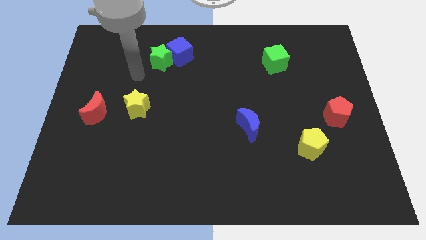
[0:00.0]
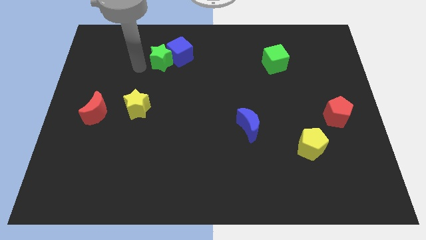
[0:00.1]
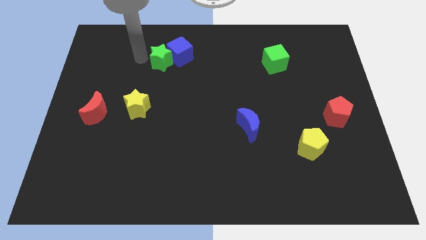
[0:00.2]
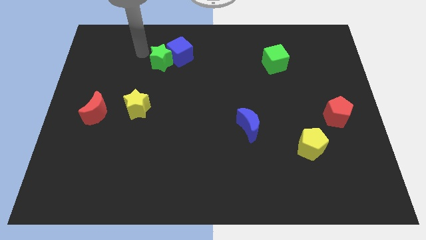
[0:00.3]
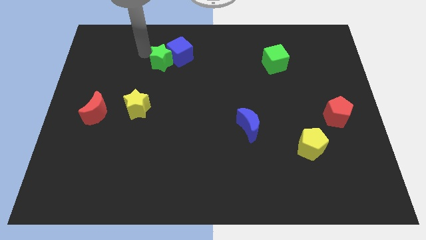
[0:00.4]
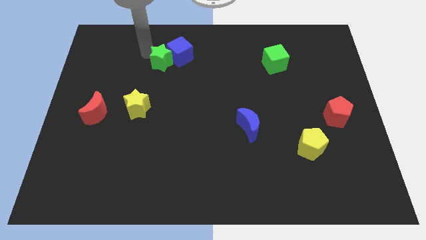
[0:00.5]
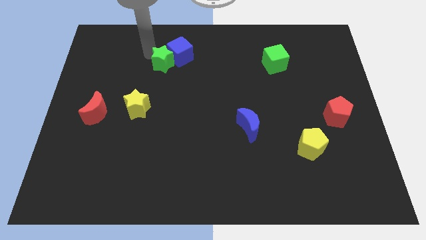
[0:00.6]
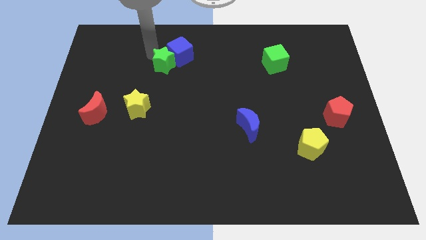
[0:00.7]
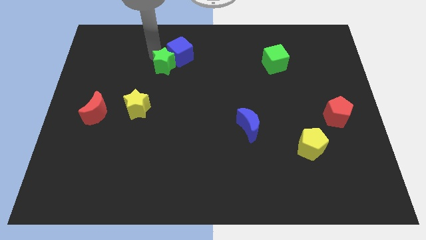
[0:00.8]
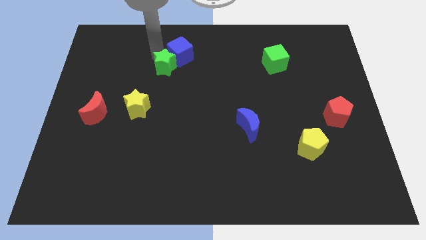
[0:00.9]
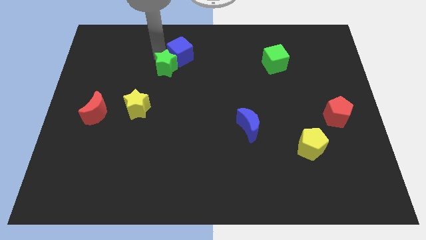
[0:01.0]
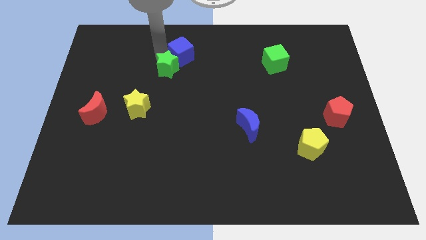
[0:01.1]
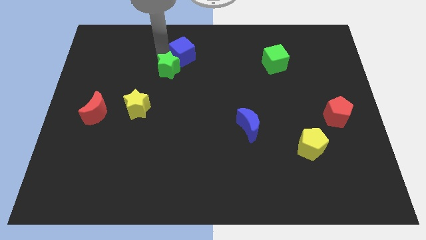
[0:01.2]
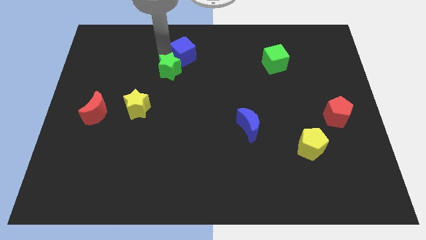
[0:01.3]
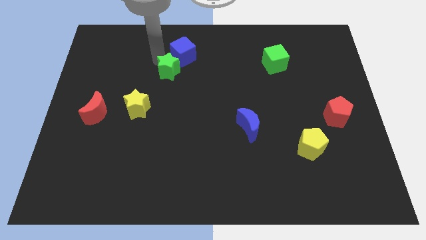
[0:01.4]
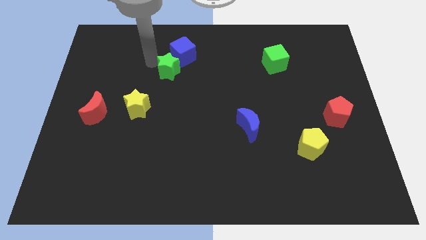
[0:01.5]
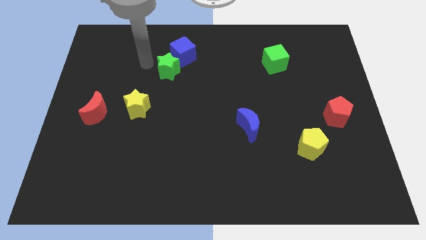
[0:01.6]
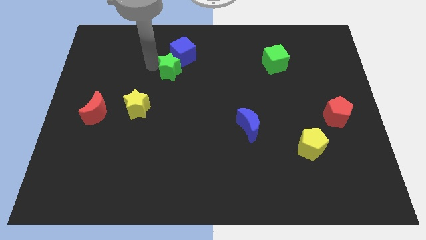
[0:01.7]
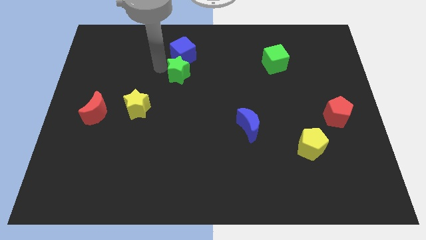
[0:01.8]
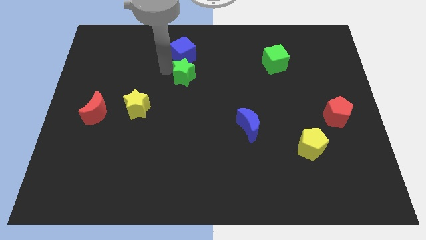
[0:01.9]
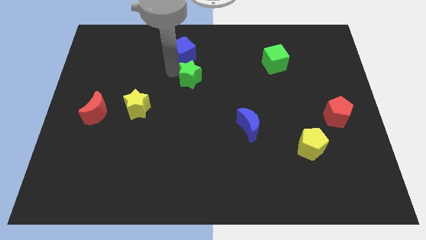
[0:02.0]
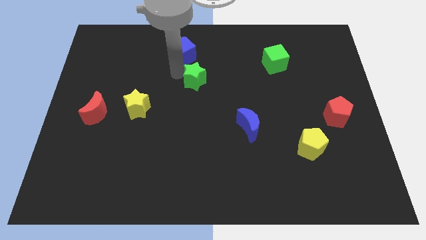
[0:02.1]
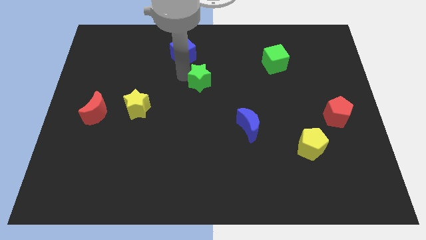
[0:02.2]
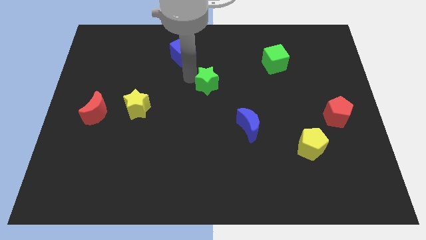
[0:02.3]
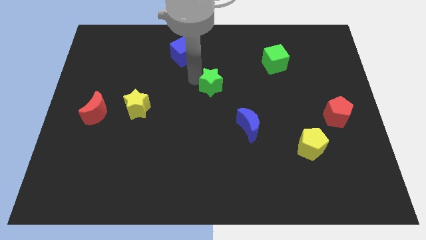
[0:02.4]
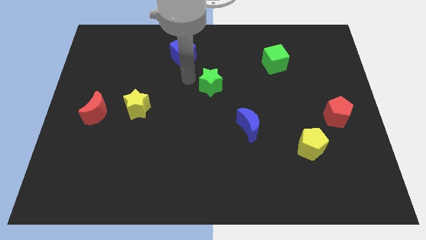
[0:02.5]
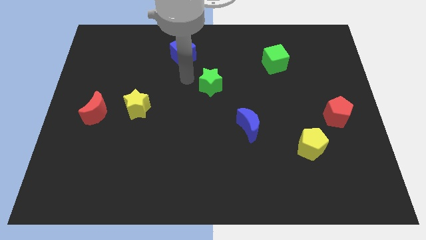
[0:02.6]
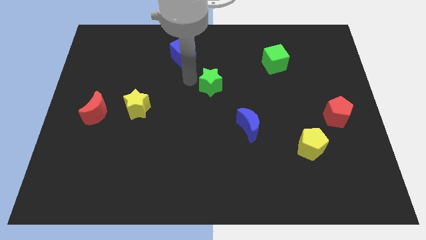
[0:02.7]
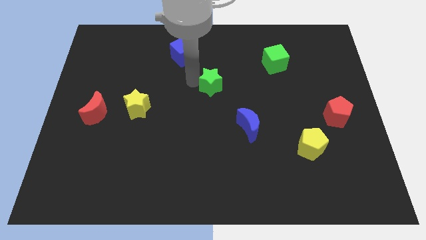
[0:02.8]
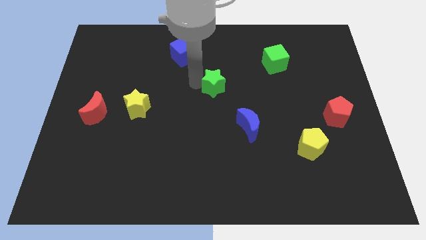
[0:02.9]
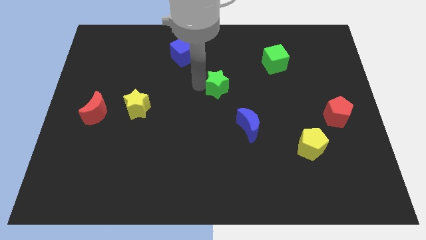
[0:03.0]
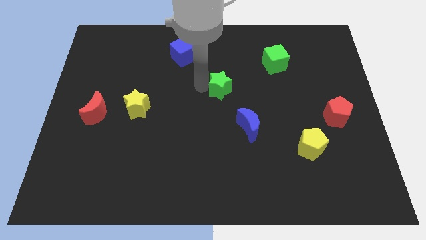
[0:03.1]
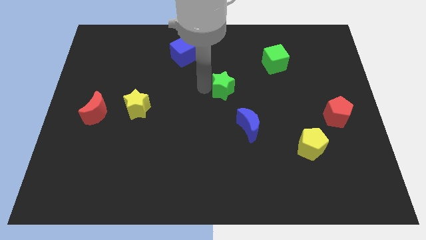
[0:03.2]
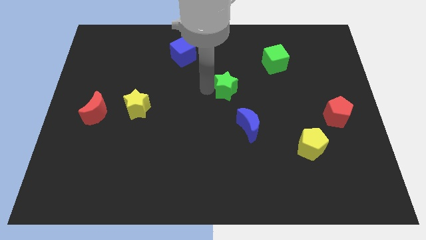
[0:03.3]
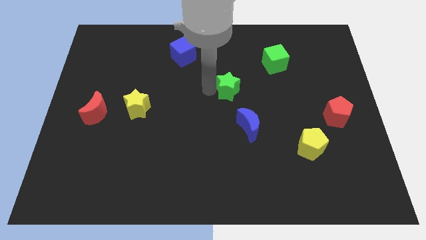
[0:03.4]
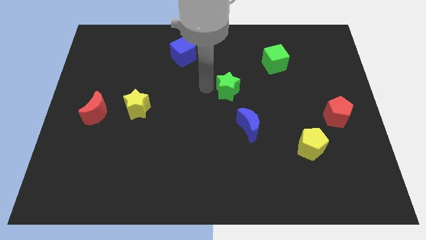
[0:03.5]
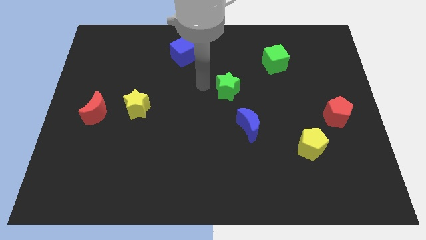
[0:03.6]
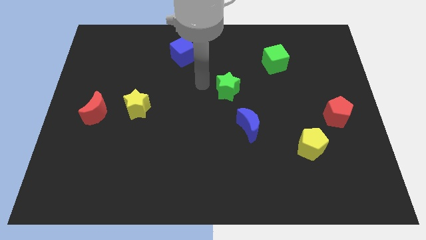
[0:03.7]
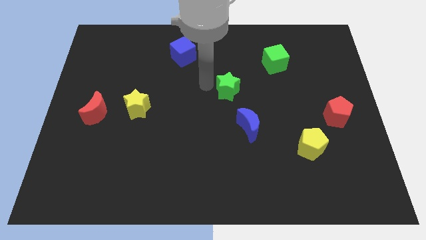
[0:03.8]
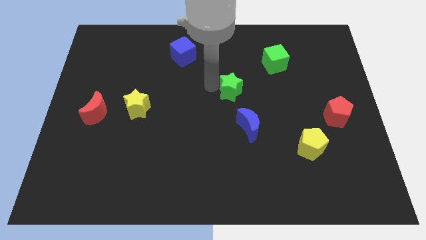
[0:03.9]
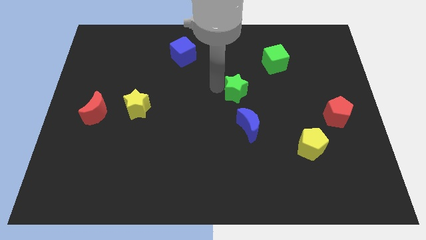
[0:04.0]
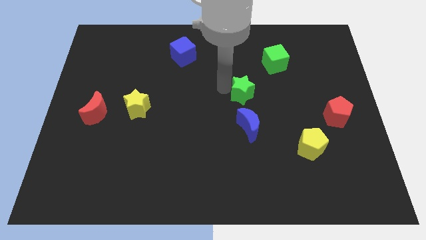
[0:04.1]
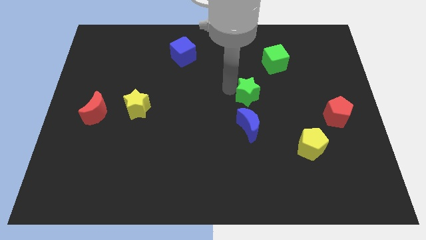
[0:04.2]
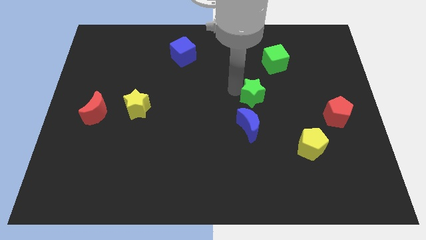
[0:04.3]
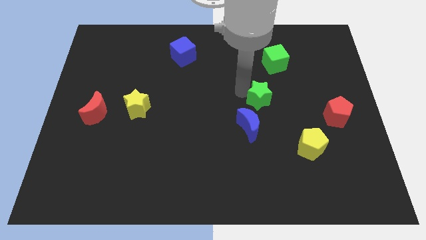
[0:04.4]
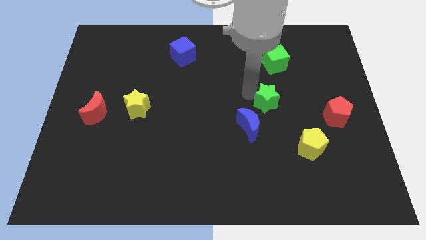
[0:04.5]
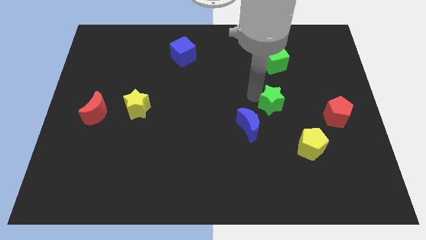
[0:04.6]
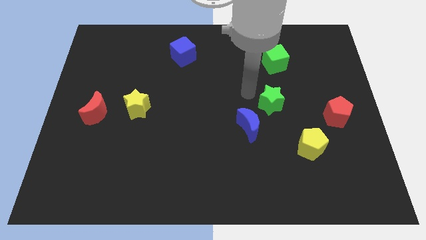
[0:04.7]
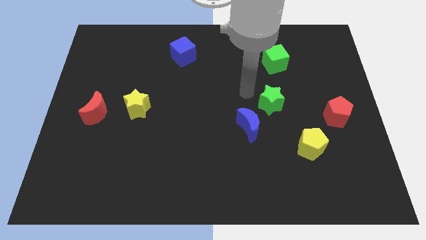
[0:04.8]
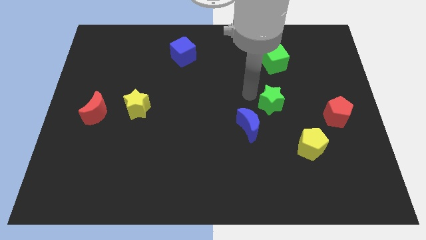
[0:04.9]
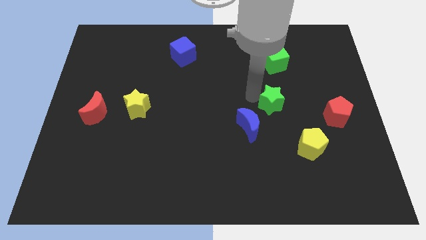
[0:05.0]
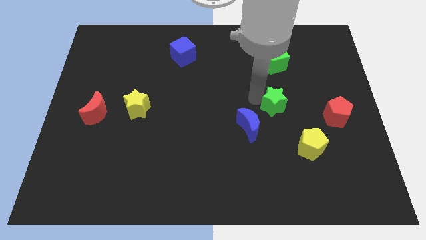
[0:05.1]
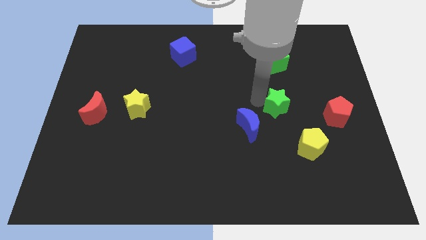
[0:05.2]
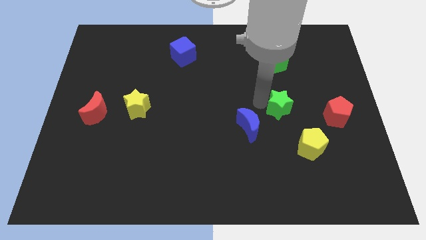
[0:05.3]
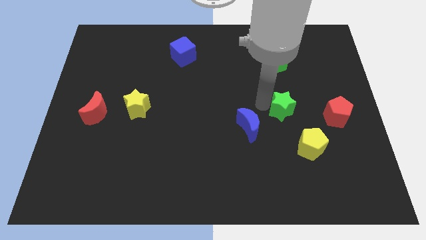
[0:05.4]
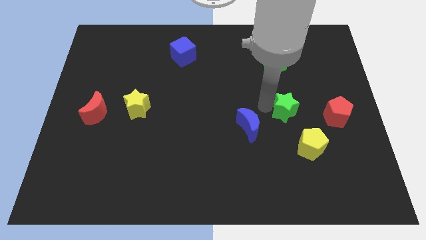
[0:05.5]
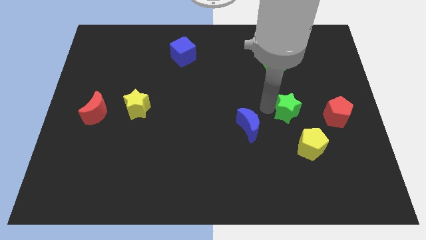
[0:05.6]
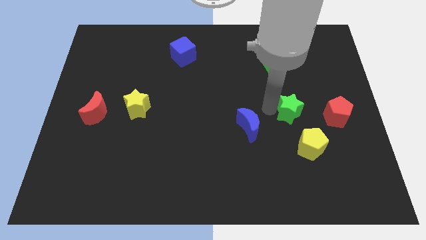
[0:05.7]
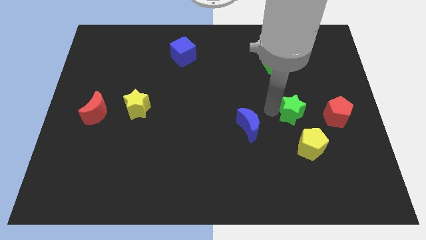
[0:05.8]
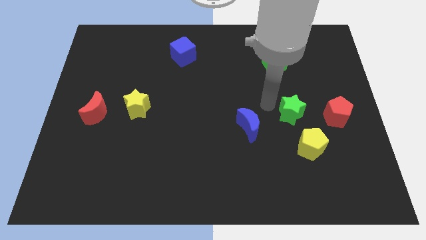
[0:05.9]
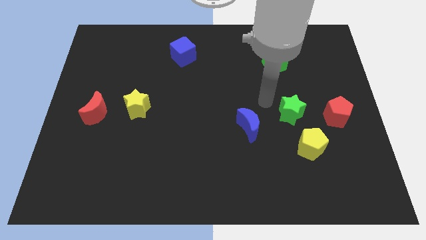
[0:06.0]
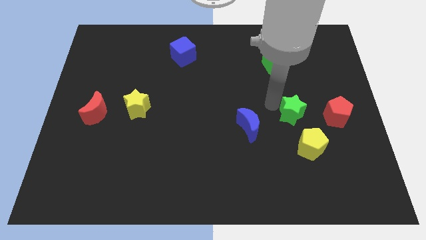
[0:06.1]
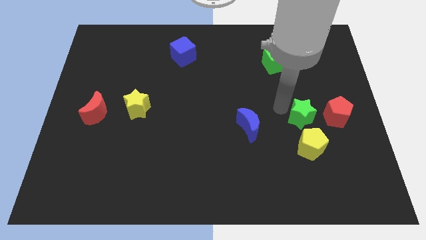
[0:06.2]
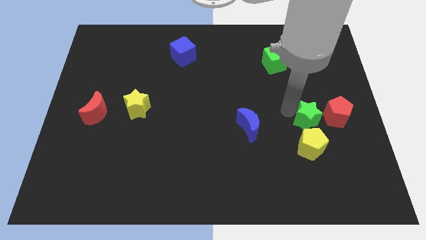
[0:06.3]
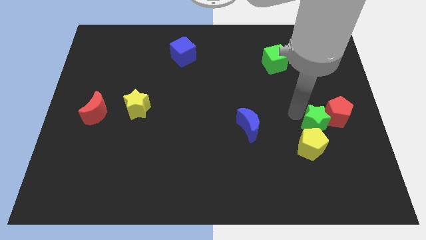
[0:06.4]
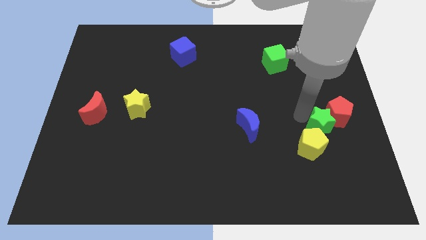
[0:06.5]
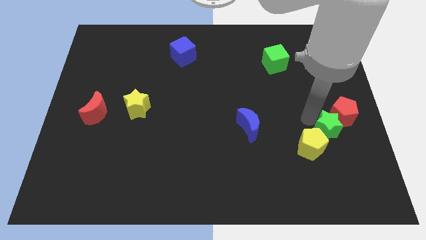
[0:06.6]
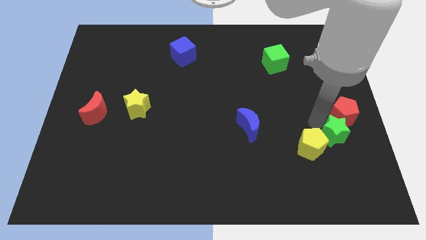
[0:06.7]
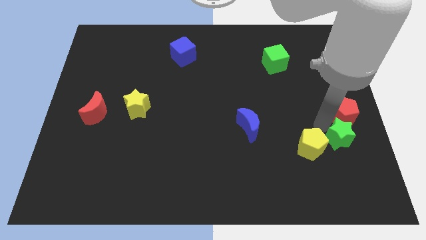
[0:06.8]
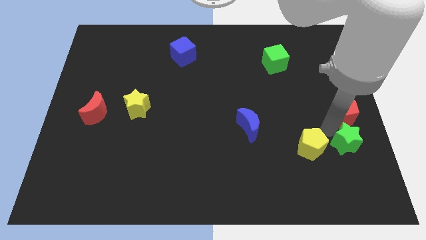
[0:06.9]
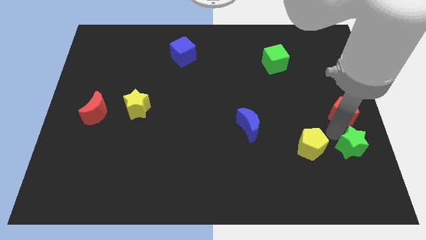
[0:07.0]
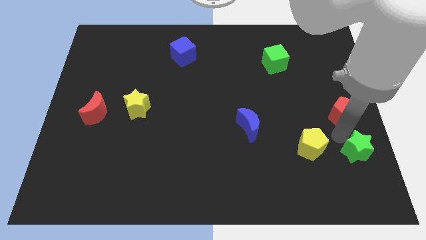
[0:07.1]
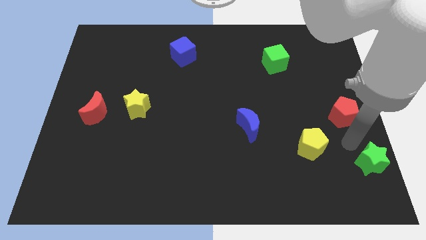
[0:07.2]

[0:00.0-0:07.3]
move the green star to the bottom right of the board
